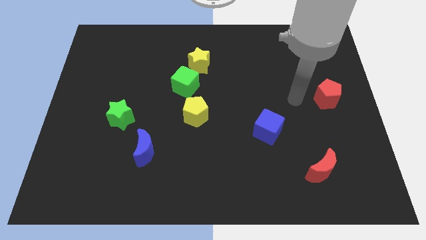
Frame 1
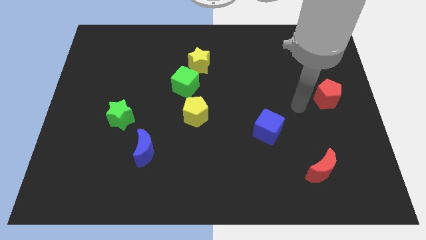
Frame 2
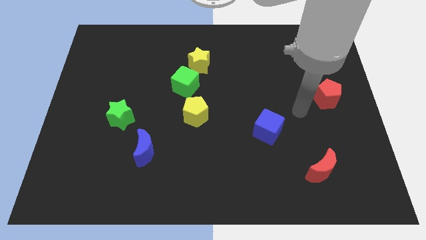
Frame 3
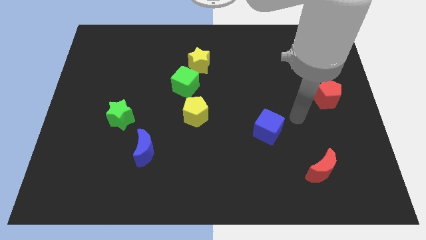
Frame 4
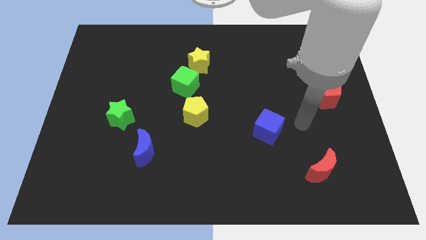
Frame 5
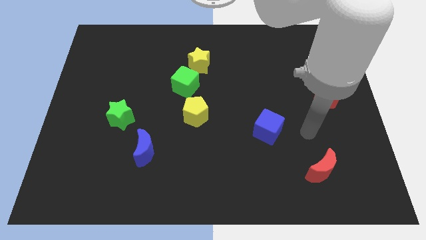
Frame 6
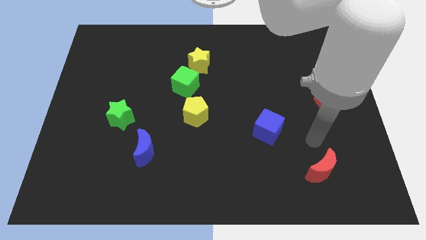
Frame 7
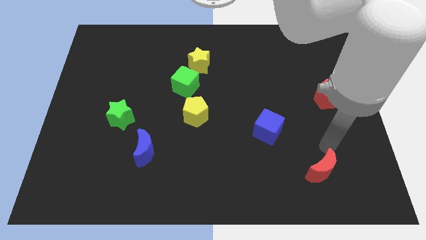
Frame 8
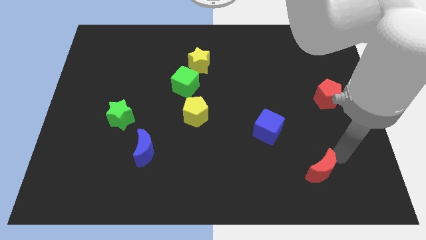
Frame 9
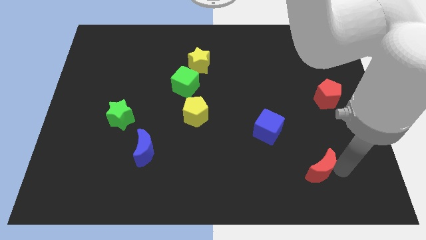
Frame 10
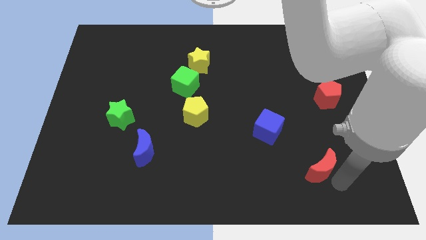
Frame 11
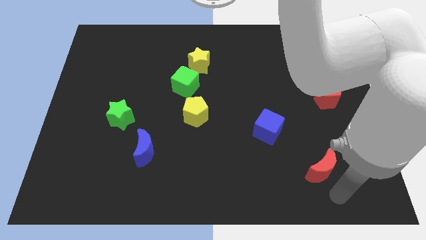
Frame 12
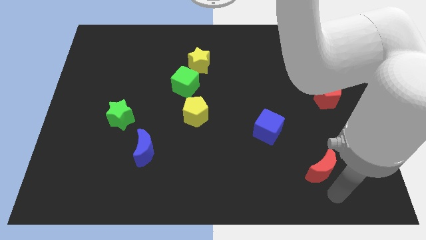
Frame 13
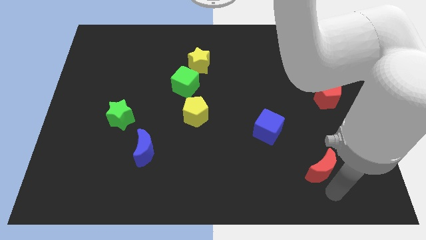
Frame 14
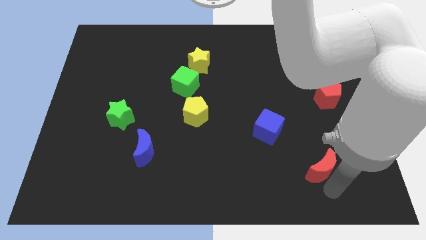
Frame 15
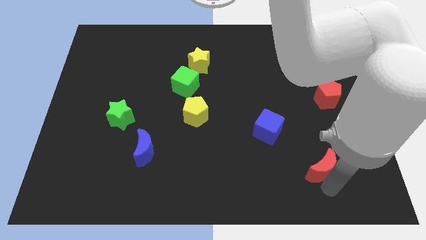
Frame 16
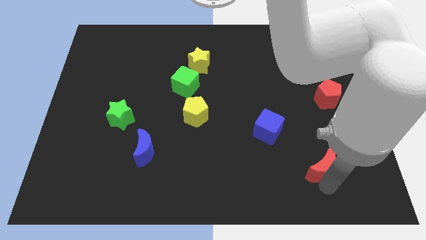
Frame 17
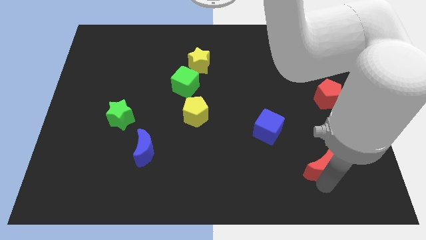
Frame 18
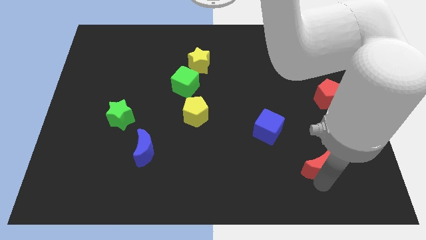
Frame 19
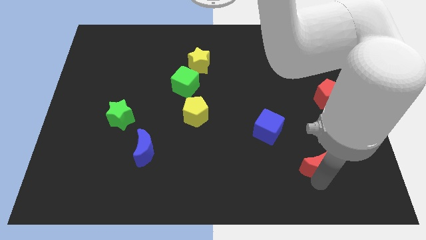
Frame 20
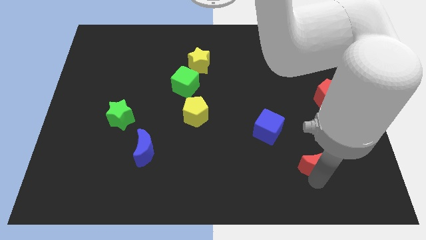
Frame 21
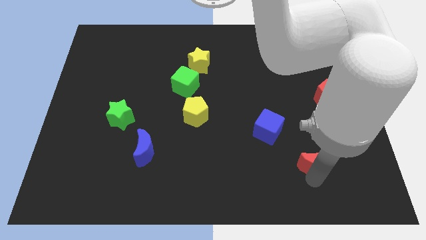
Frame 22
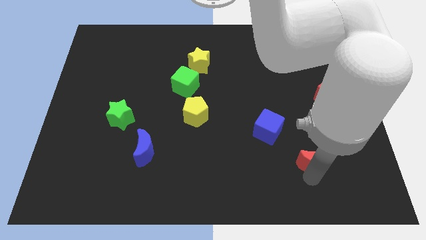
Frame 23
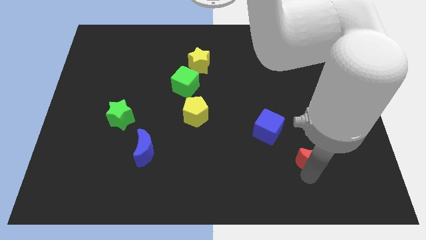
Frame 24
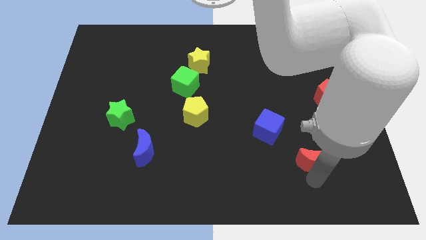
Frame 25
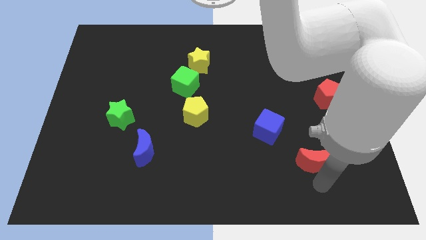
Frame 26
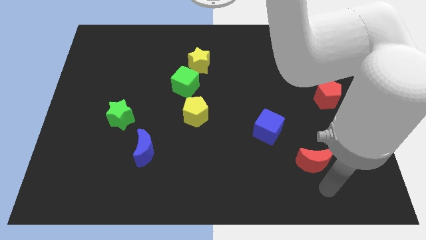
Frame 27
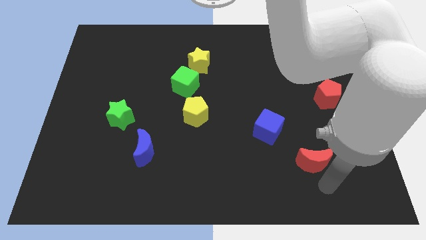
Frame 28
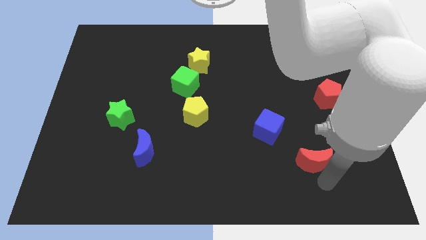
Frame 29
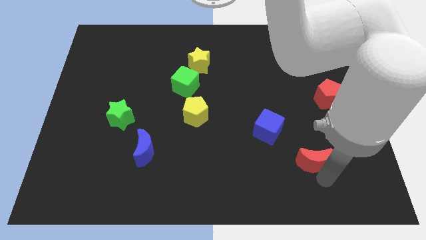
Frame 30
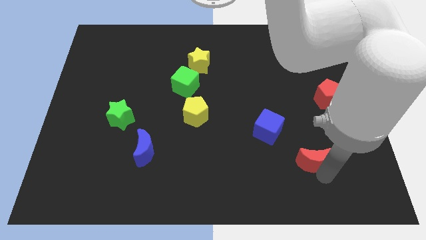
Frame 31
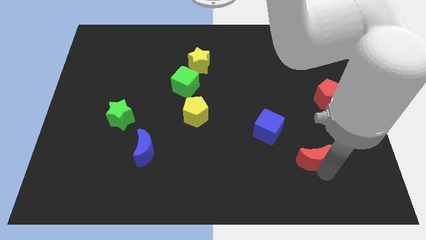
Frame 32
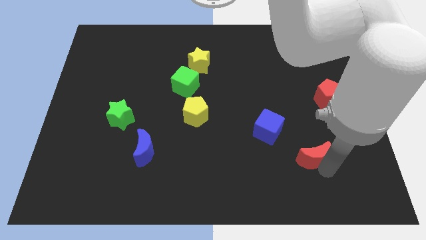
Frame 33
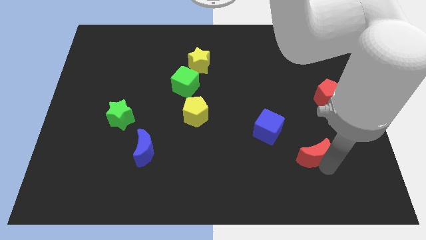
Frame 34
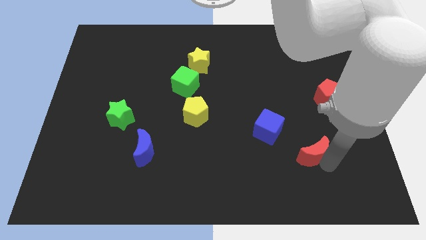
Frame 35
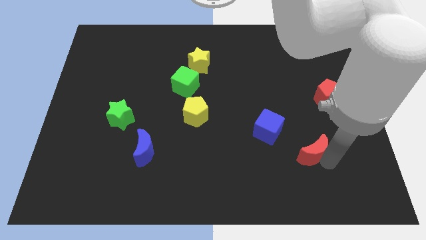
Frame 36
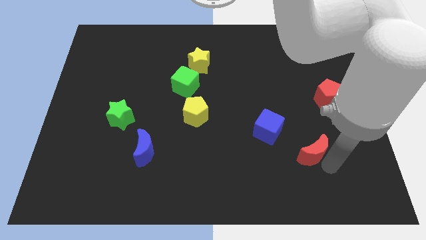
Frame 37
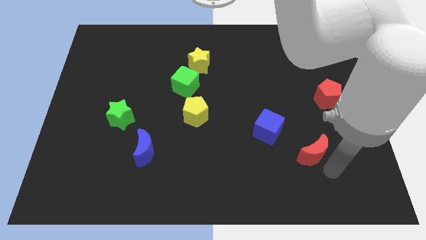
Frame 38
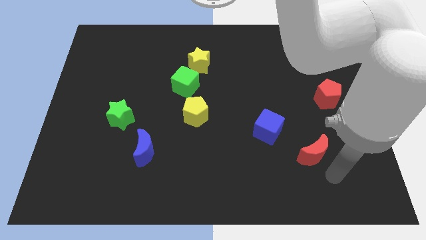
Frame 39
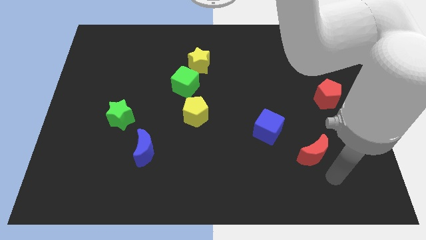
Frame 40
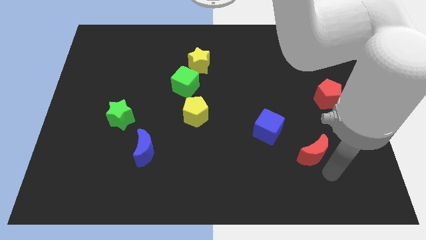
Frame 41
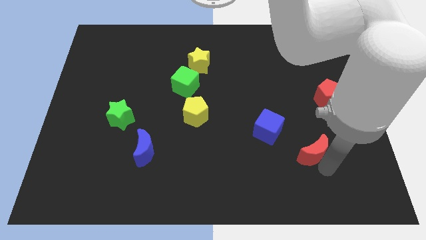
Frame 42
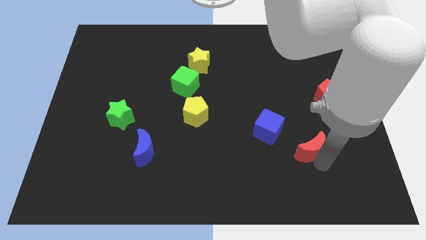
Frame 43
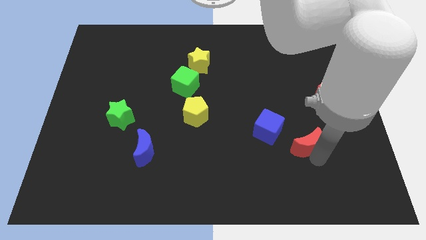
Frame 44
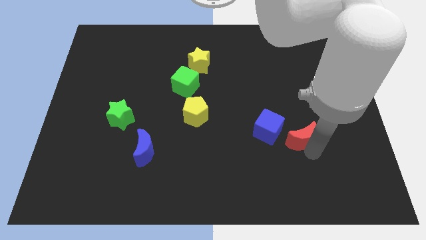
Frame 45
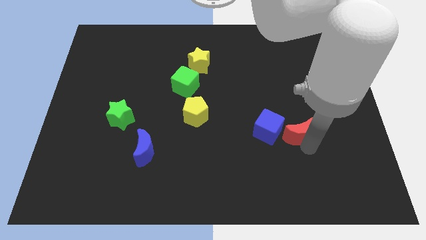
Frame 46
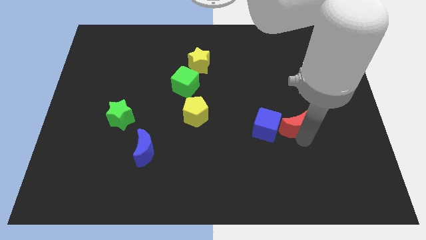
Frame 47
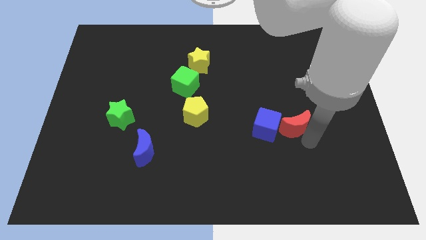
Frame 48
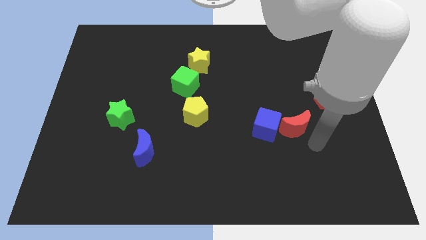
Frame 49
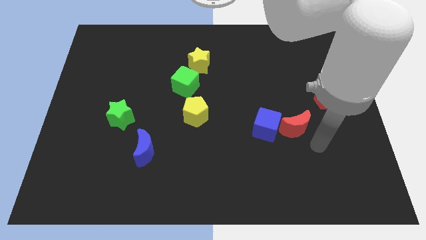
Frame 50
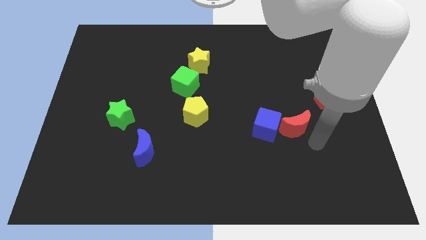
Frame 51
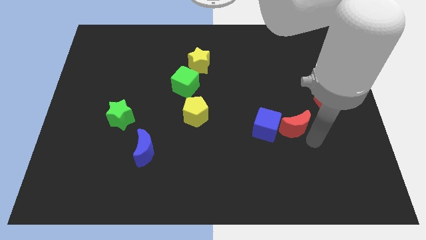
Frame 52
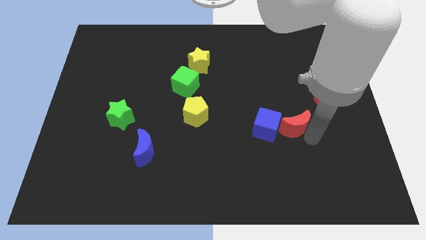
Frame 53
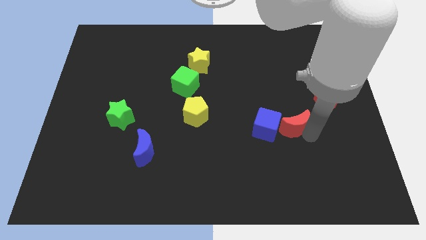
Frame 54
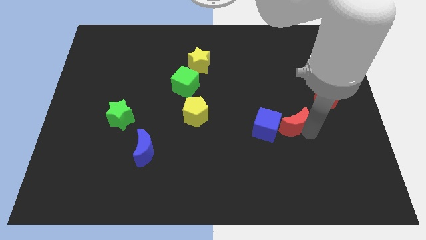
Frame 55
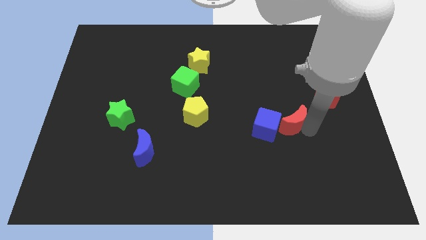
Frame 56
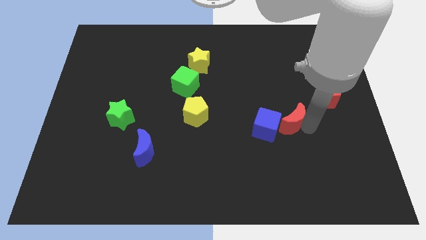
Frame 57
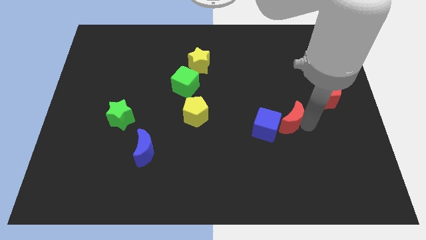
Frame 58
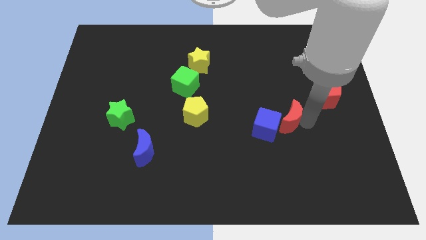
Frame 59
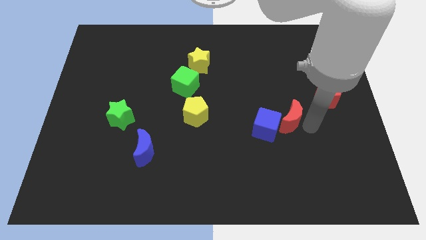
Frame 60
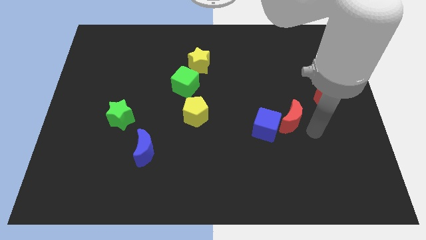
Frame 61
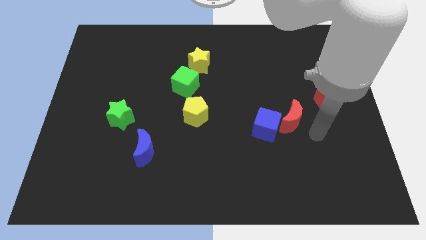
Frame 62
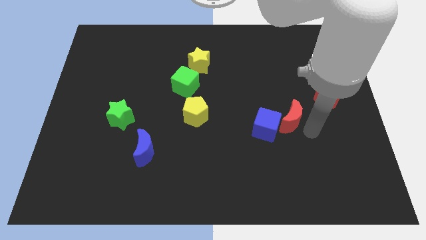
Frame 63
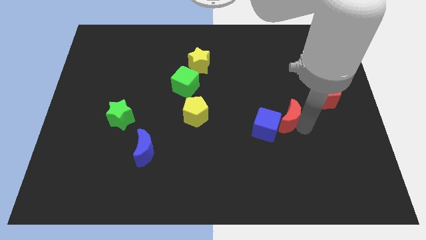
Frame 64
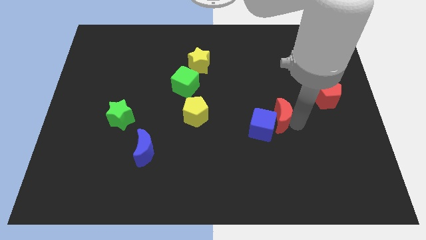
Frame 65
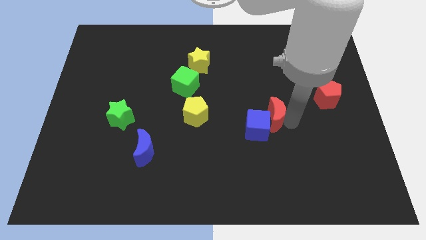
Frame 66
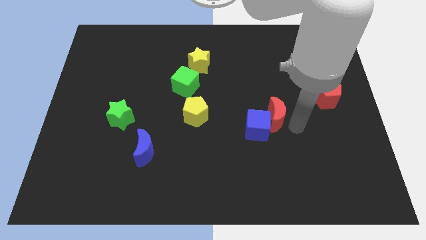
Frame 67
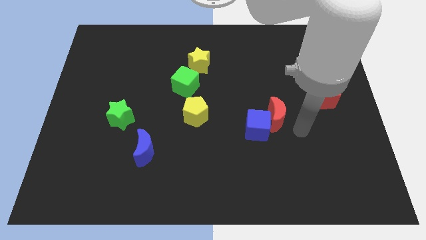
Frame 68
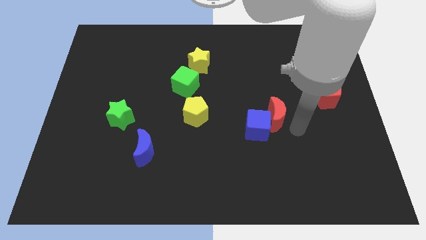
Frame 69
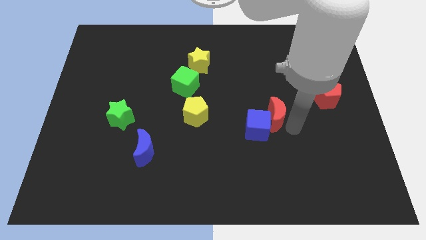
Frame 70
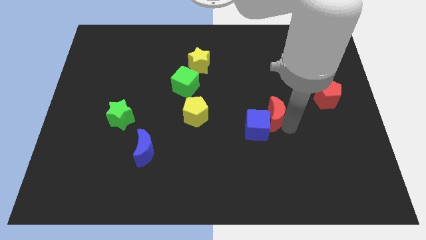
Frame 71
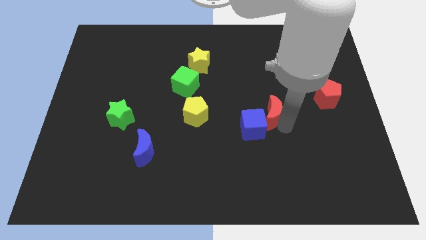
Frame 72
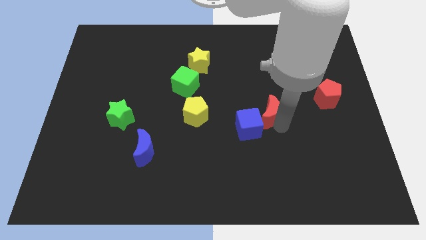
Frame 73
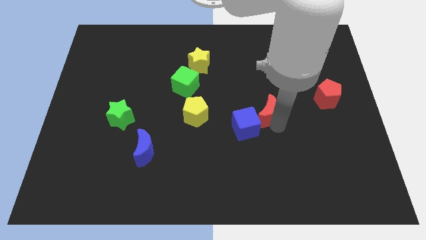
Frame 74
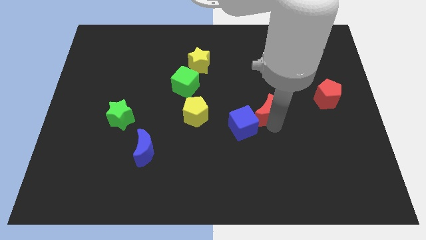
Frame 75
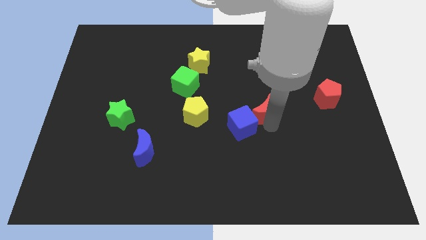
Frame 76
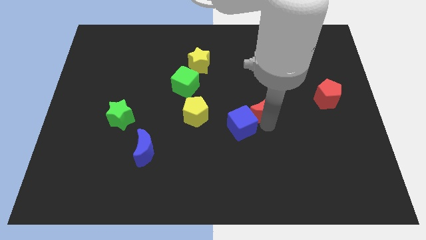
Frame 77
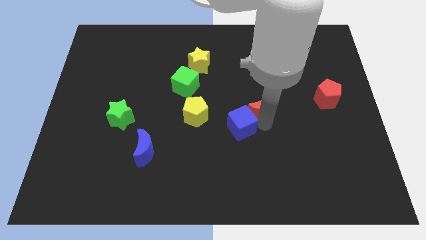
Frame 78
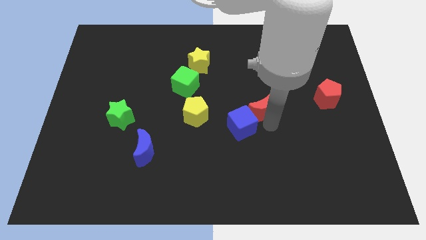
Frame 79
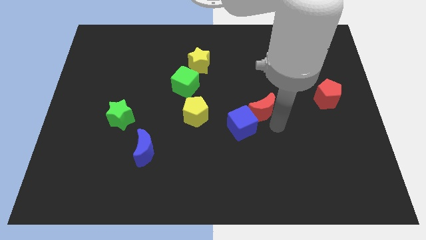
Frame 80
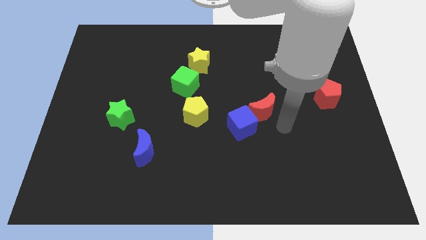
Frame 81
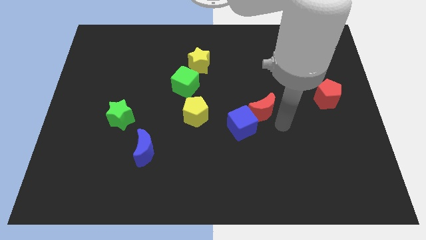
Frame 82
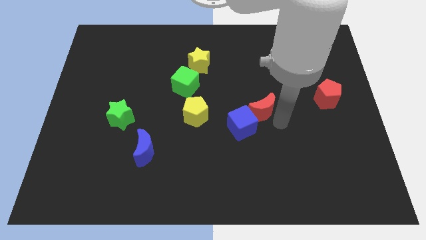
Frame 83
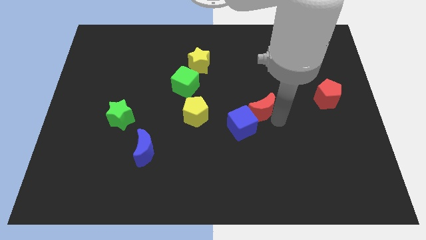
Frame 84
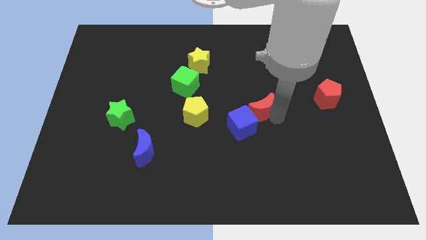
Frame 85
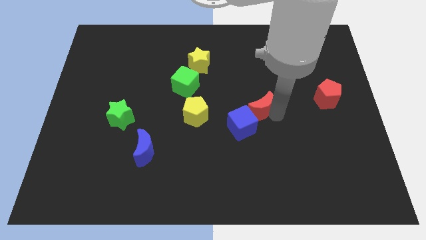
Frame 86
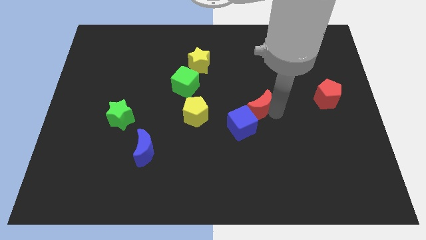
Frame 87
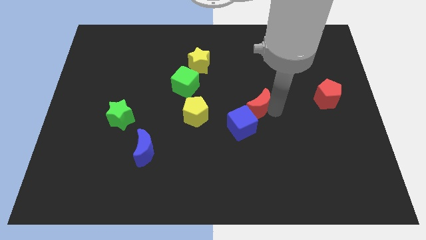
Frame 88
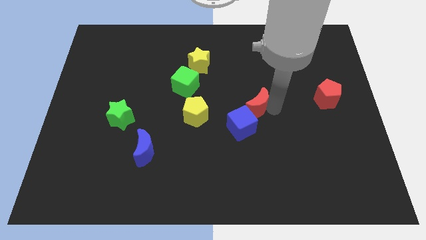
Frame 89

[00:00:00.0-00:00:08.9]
move the red moon upwards and left
